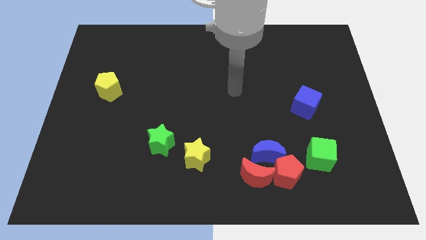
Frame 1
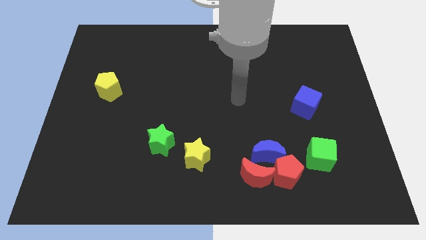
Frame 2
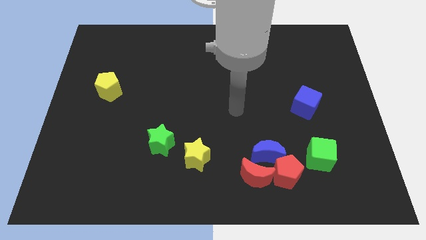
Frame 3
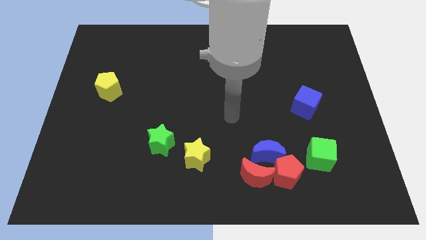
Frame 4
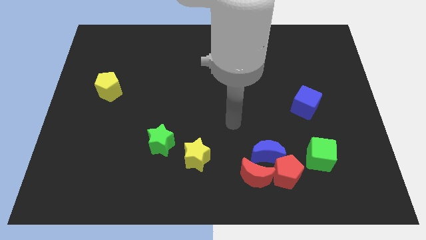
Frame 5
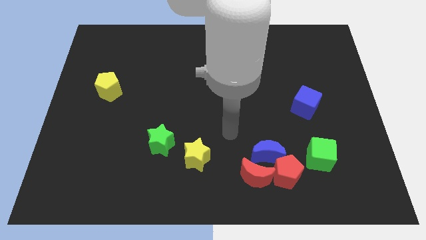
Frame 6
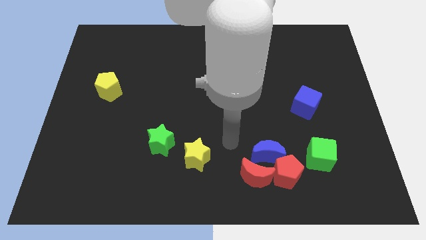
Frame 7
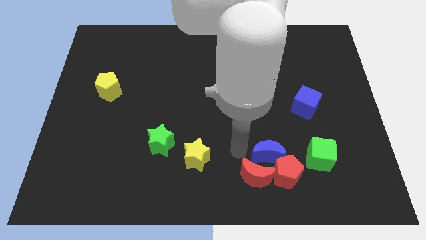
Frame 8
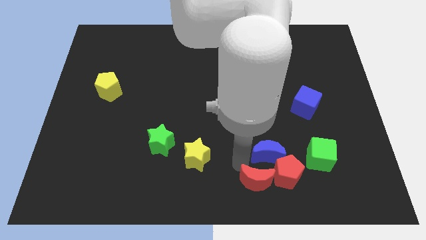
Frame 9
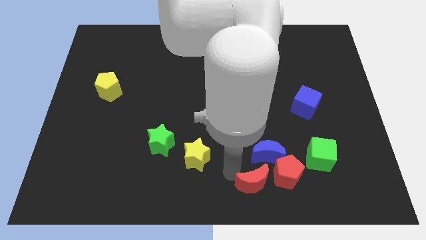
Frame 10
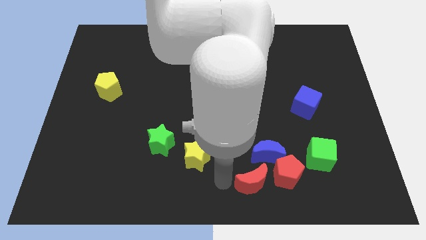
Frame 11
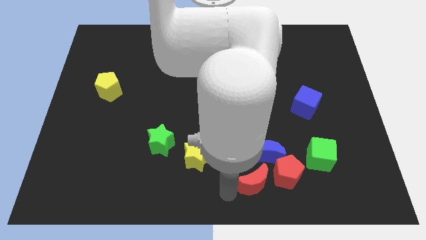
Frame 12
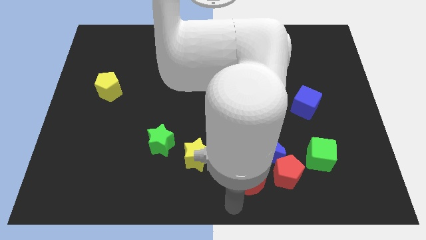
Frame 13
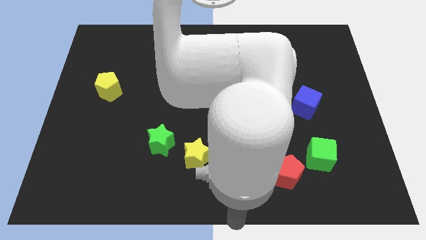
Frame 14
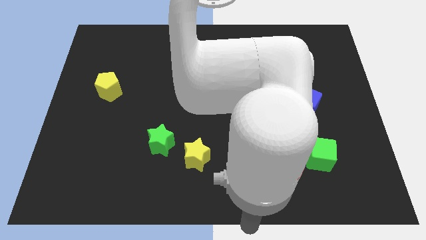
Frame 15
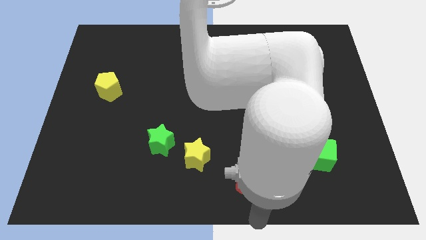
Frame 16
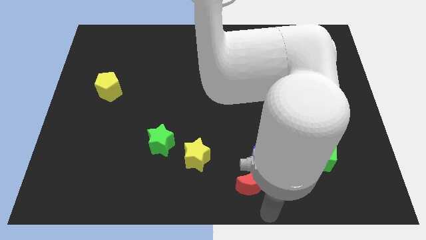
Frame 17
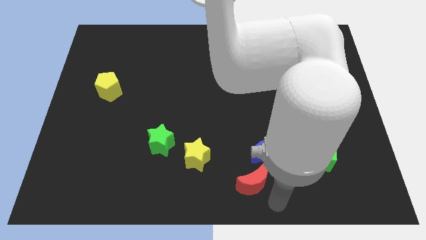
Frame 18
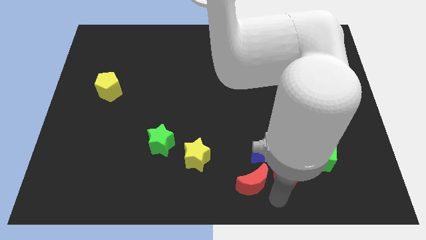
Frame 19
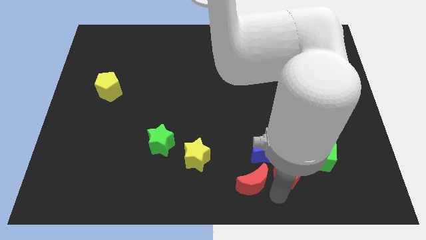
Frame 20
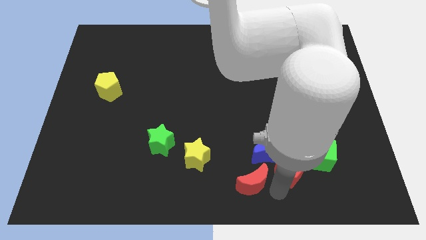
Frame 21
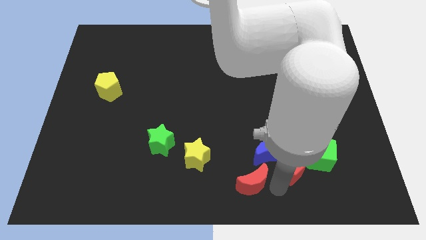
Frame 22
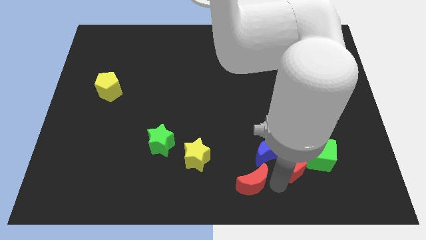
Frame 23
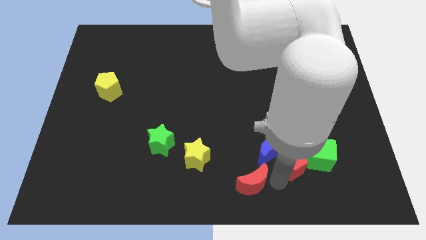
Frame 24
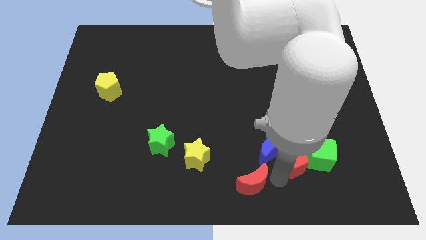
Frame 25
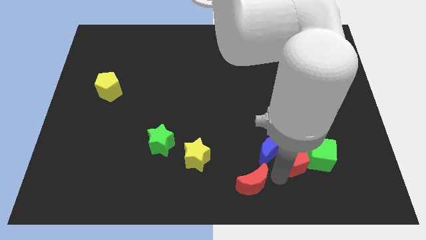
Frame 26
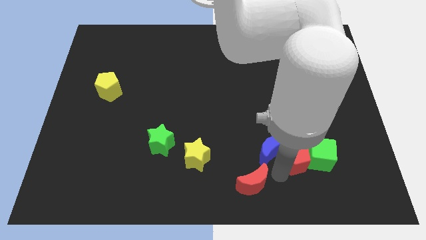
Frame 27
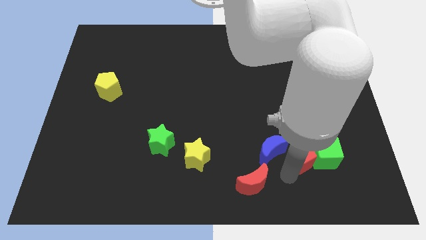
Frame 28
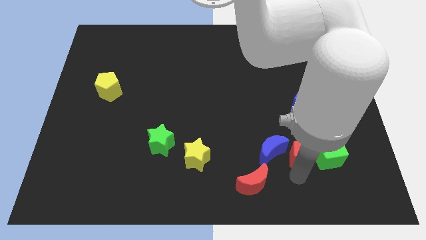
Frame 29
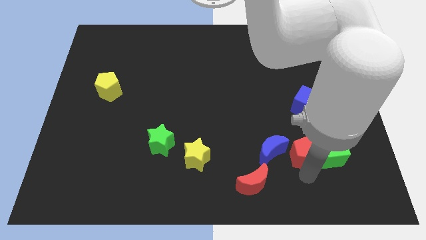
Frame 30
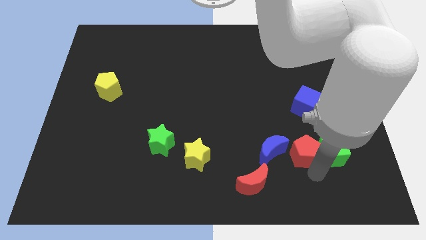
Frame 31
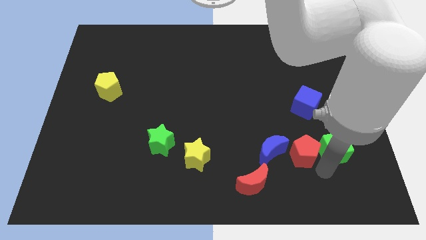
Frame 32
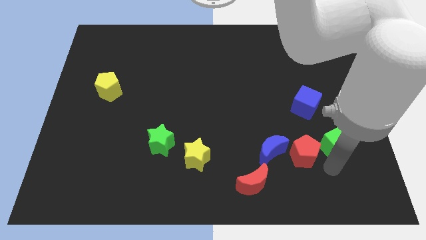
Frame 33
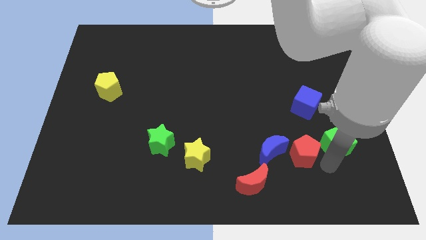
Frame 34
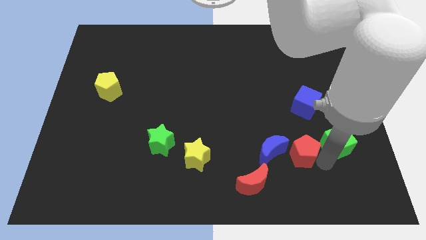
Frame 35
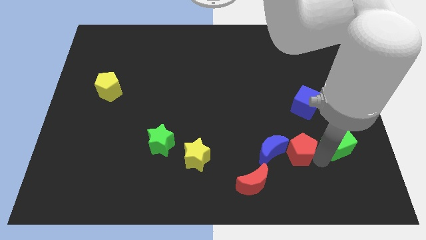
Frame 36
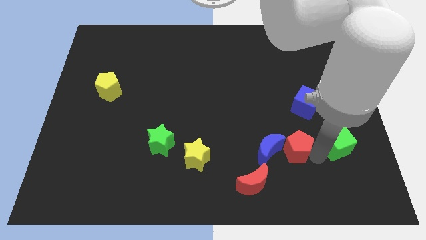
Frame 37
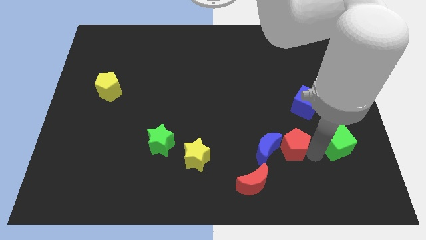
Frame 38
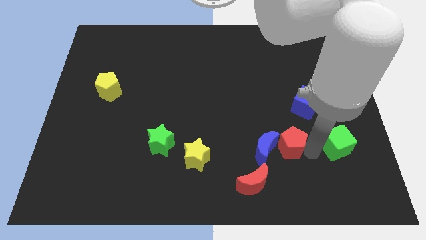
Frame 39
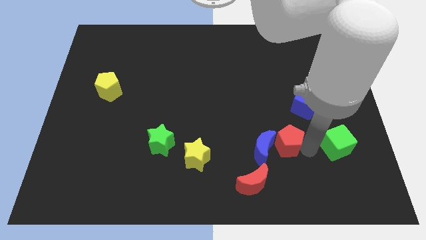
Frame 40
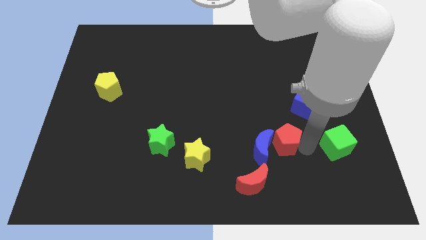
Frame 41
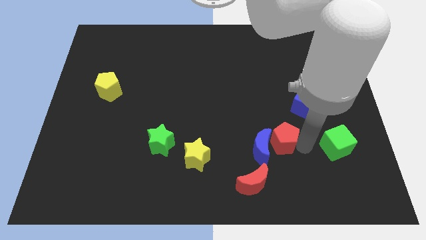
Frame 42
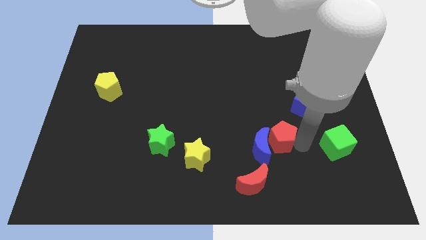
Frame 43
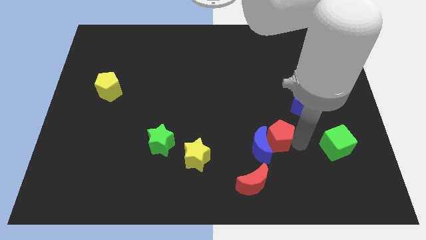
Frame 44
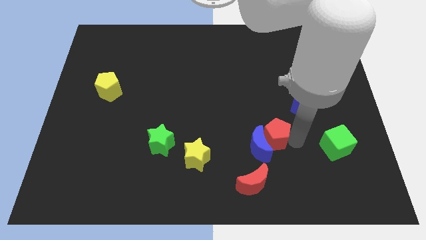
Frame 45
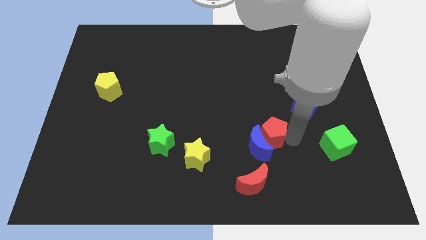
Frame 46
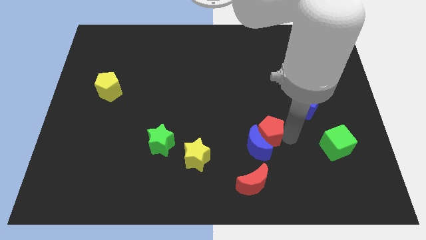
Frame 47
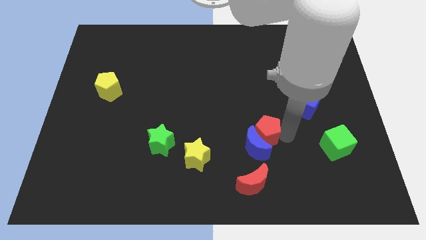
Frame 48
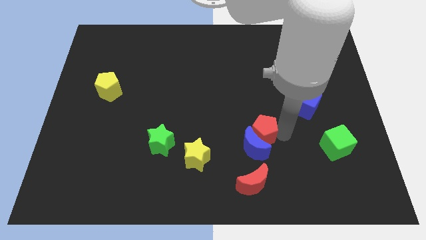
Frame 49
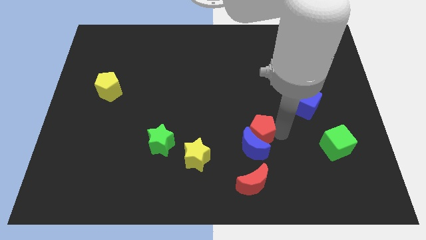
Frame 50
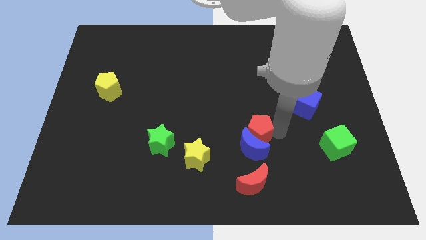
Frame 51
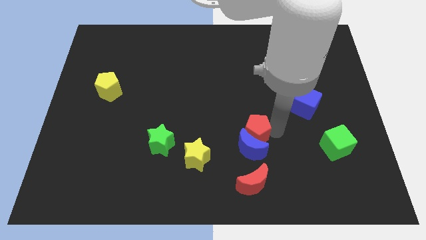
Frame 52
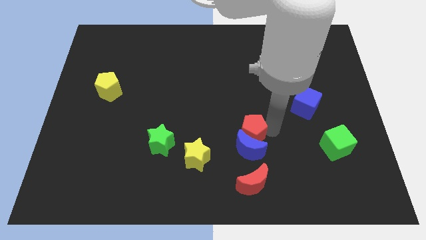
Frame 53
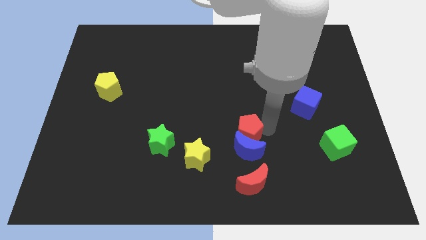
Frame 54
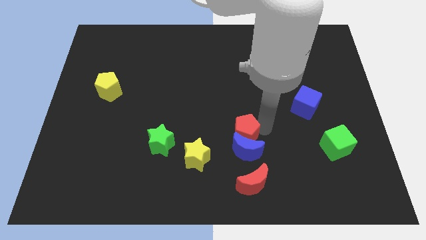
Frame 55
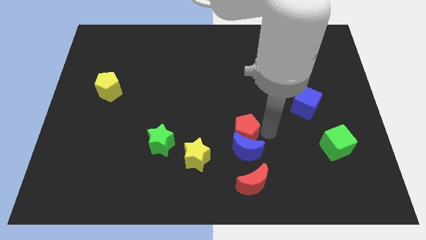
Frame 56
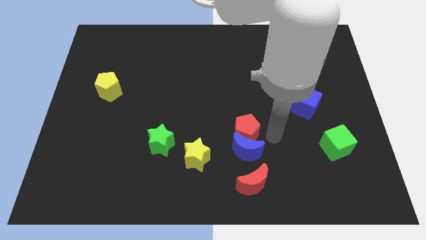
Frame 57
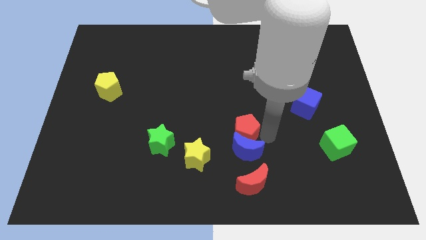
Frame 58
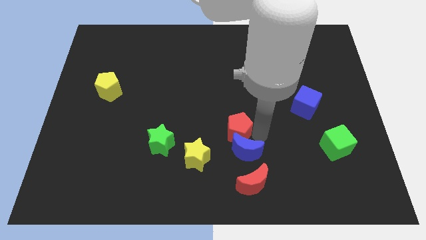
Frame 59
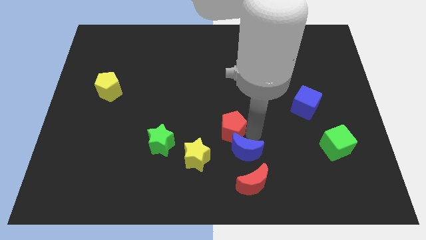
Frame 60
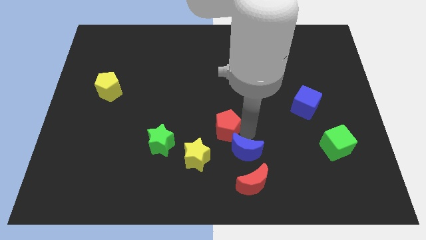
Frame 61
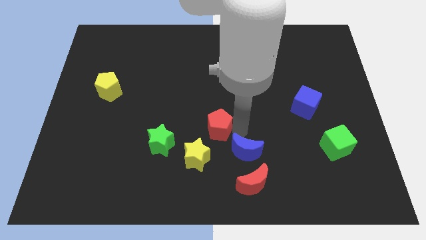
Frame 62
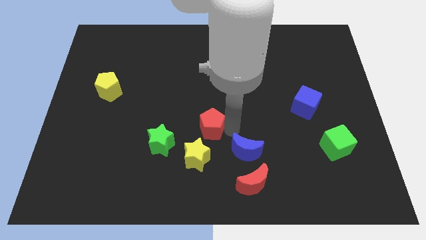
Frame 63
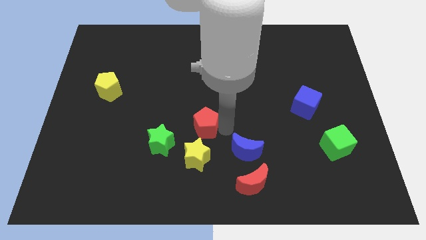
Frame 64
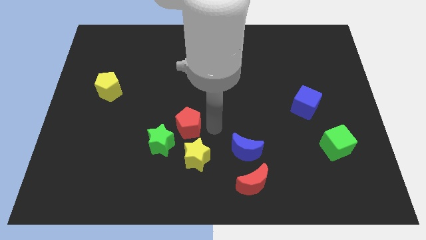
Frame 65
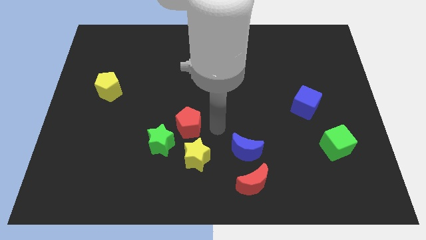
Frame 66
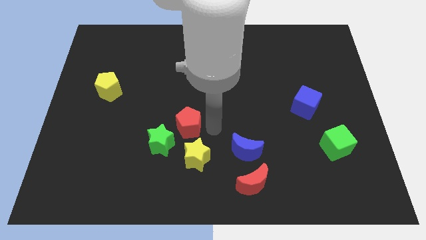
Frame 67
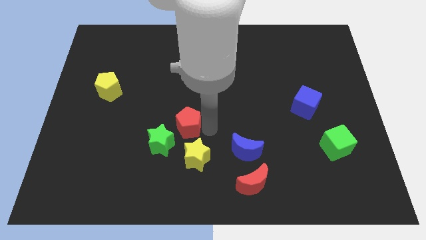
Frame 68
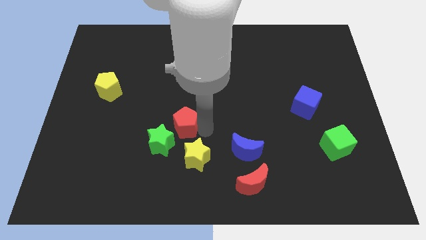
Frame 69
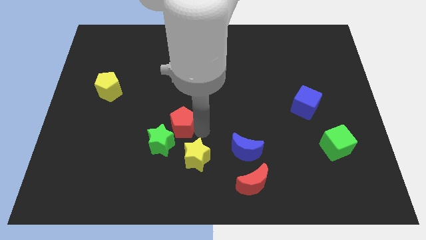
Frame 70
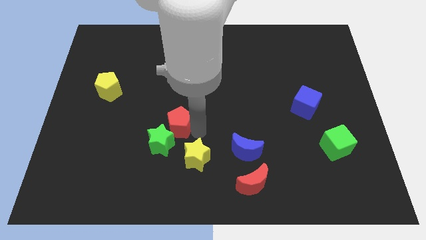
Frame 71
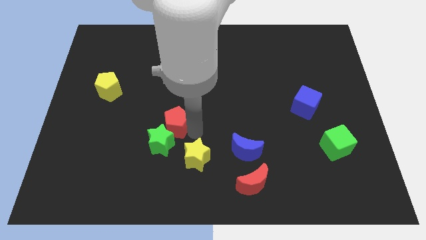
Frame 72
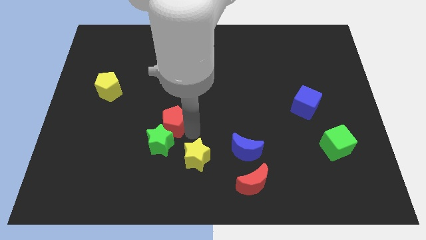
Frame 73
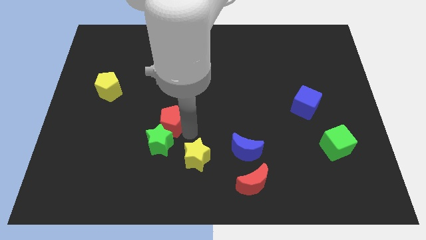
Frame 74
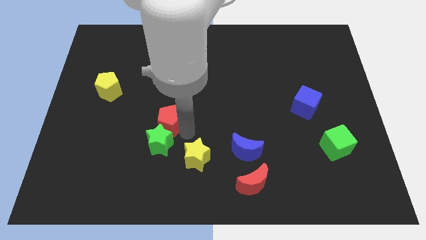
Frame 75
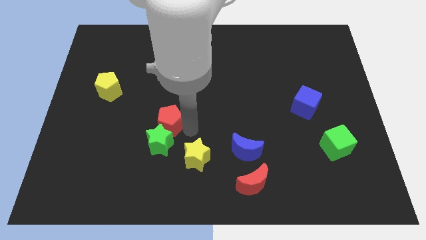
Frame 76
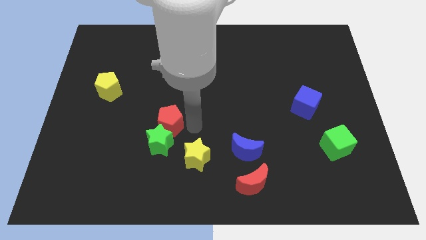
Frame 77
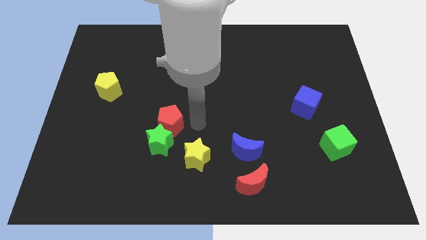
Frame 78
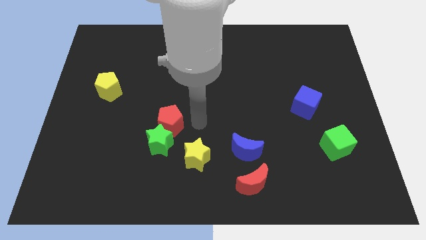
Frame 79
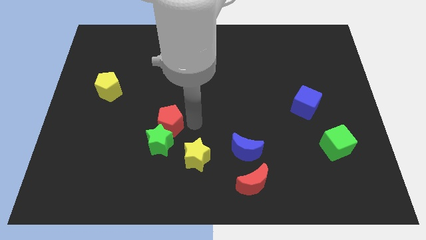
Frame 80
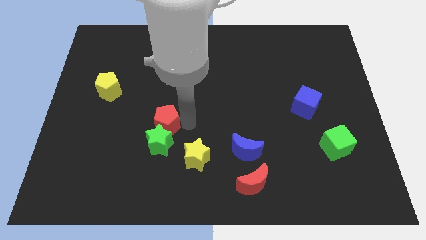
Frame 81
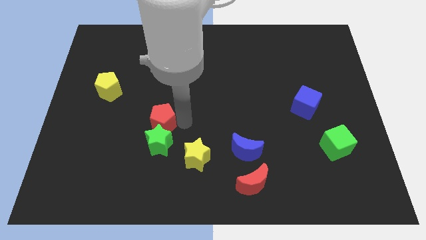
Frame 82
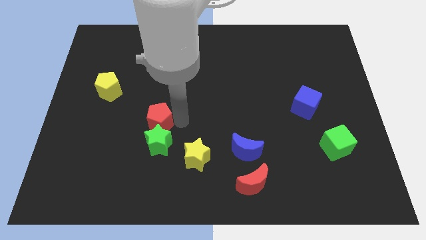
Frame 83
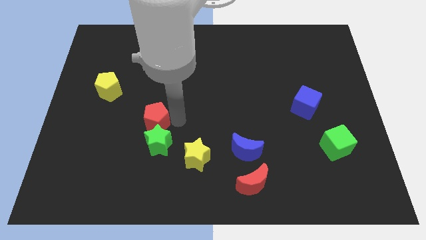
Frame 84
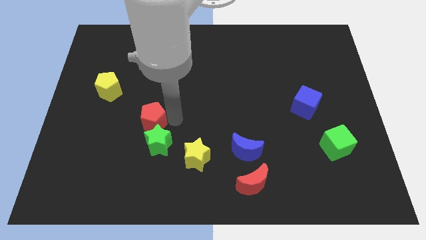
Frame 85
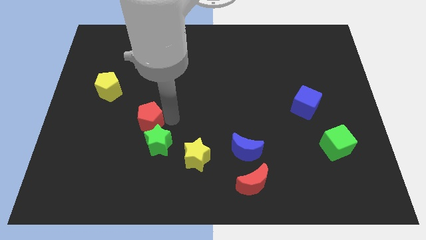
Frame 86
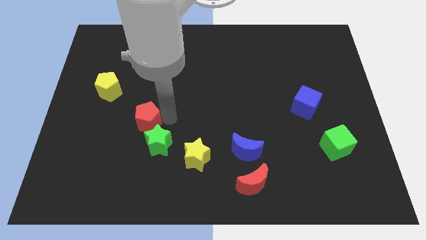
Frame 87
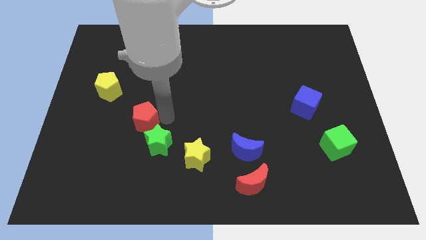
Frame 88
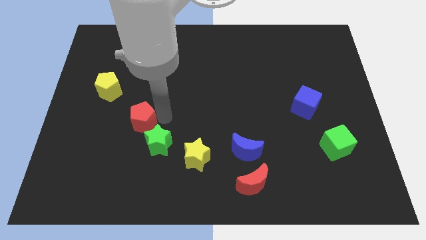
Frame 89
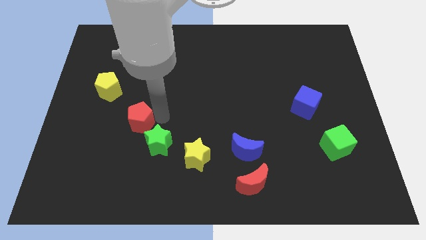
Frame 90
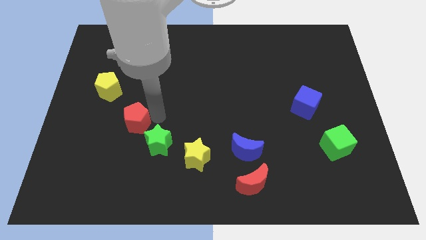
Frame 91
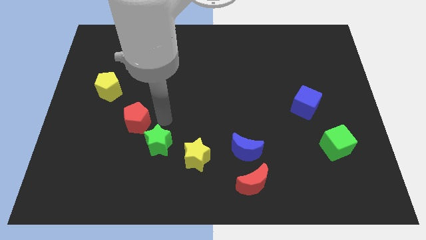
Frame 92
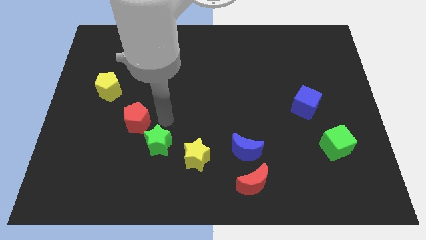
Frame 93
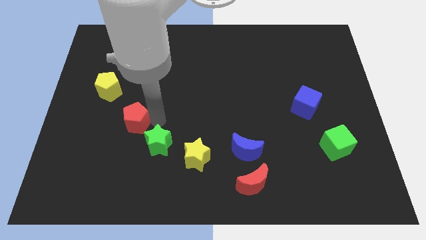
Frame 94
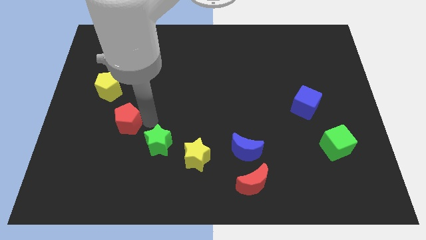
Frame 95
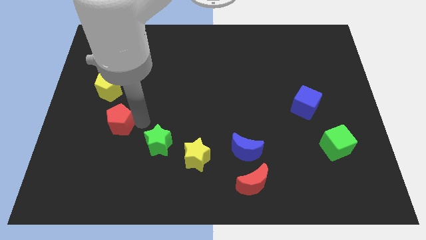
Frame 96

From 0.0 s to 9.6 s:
move the red pentagon below the yellow pentagon
